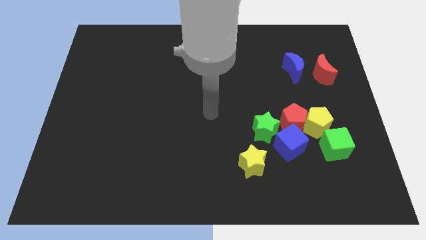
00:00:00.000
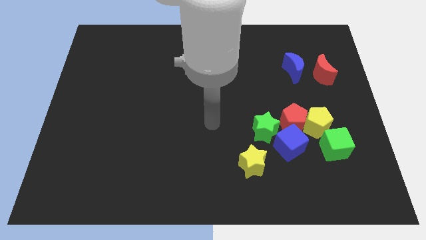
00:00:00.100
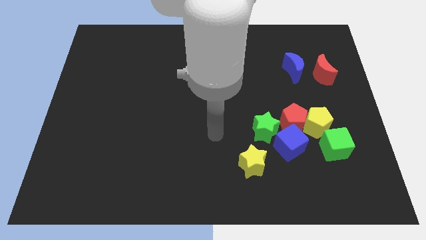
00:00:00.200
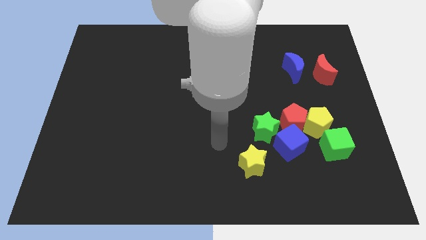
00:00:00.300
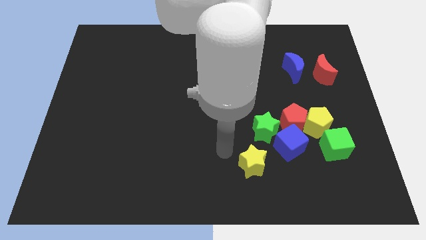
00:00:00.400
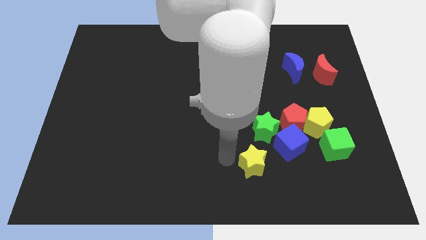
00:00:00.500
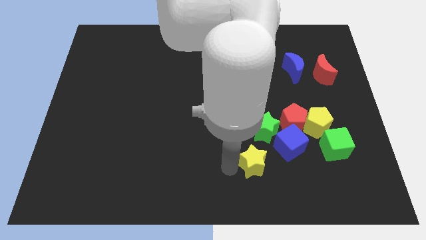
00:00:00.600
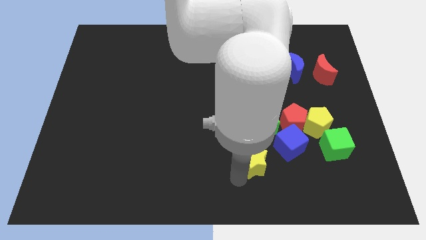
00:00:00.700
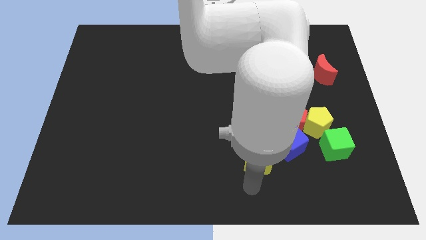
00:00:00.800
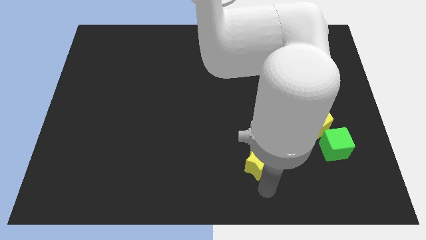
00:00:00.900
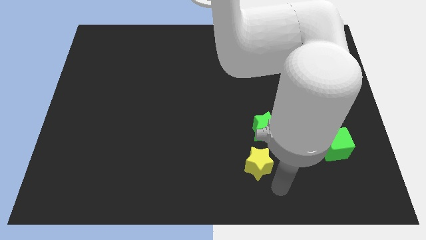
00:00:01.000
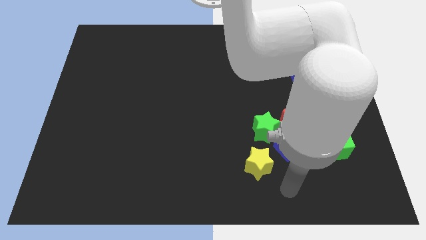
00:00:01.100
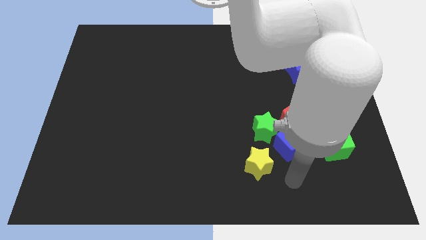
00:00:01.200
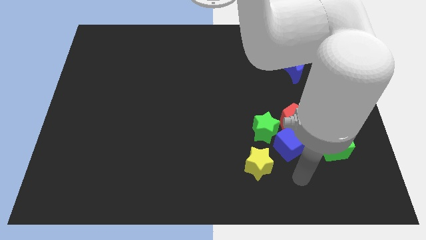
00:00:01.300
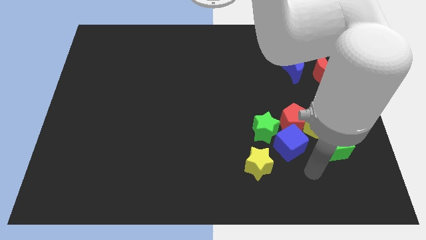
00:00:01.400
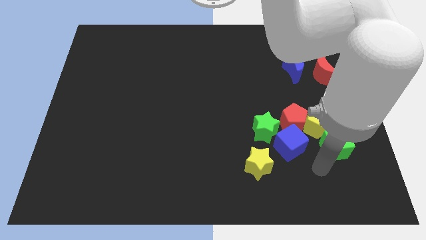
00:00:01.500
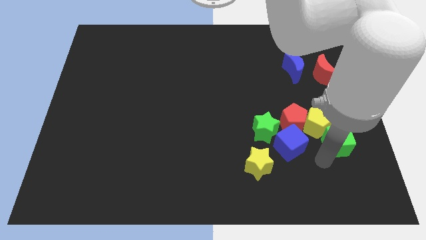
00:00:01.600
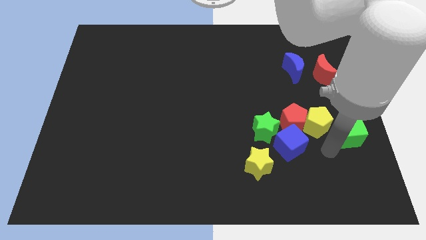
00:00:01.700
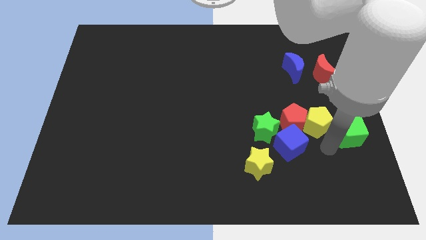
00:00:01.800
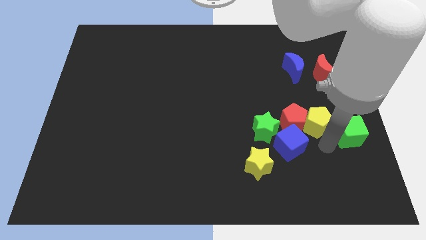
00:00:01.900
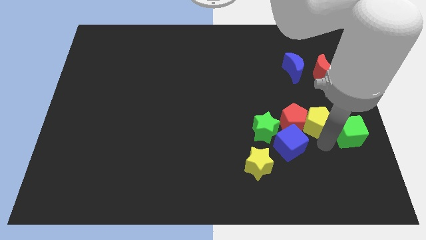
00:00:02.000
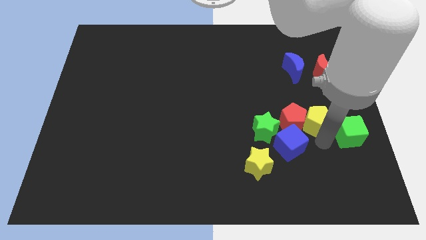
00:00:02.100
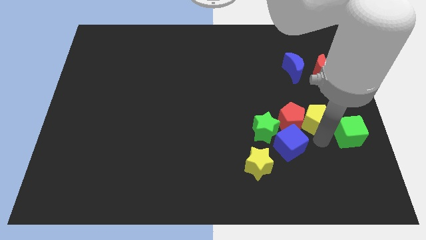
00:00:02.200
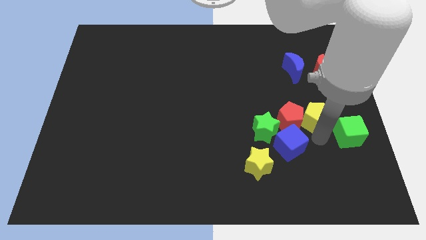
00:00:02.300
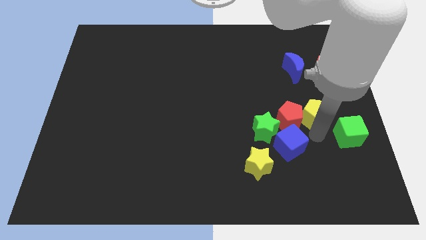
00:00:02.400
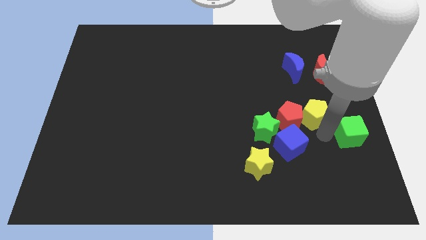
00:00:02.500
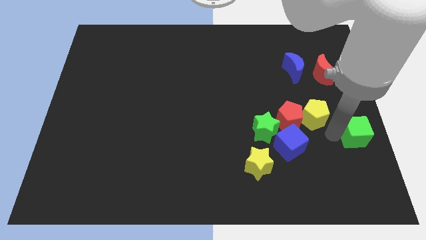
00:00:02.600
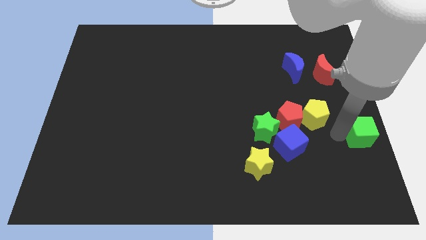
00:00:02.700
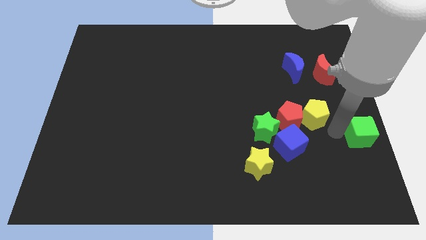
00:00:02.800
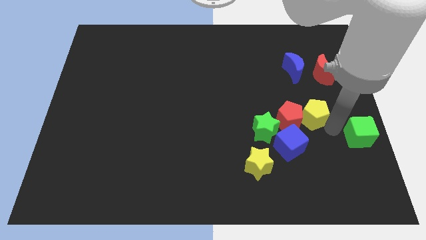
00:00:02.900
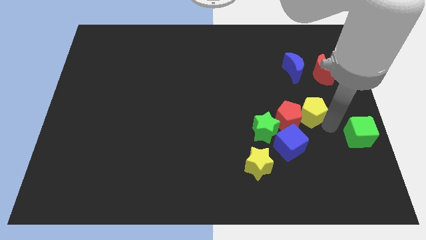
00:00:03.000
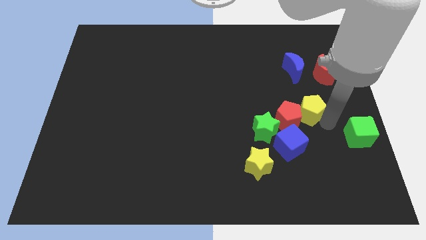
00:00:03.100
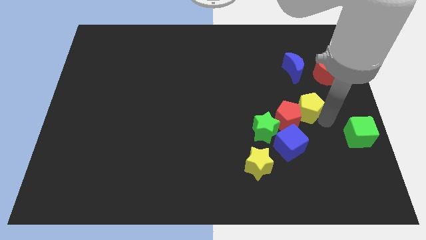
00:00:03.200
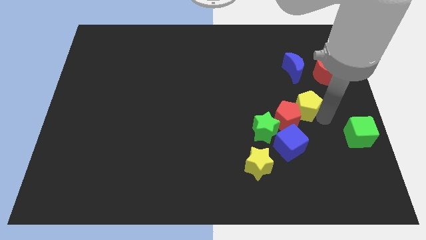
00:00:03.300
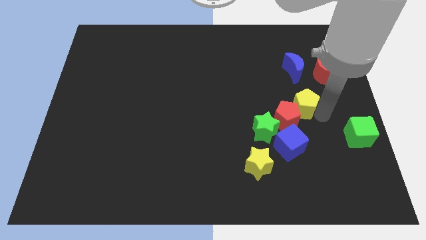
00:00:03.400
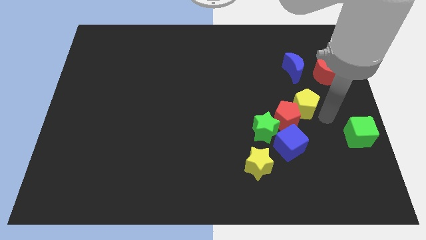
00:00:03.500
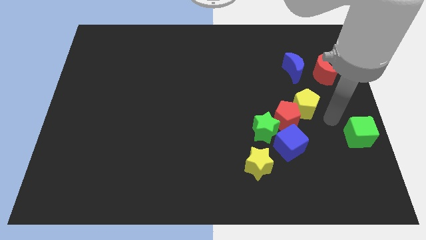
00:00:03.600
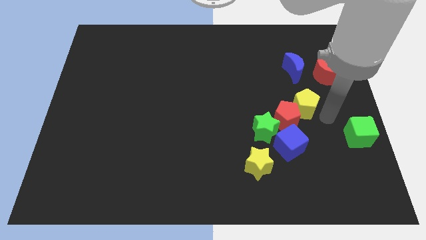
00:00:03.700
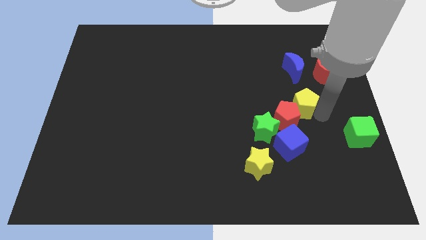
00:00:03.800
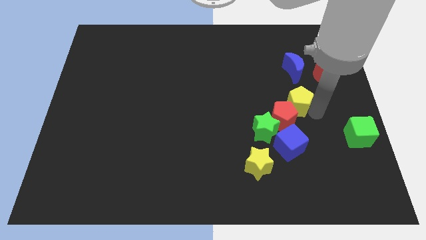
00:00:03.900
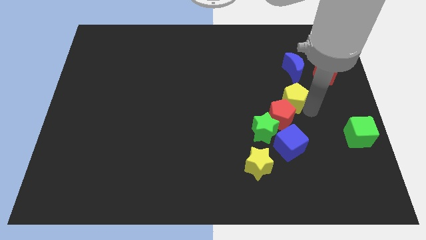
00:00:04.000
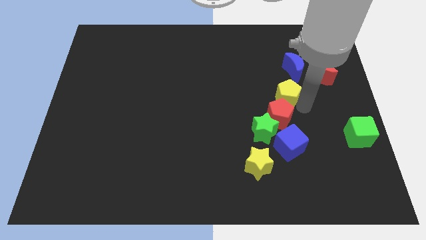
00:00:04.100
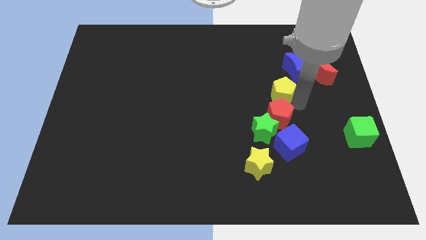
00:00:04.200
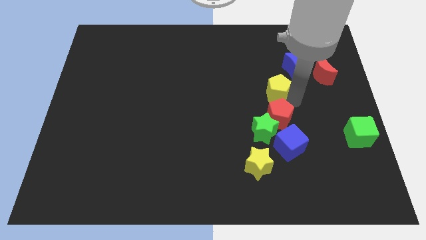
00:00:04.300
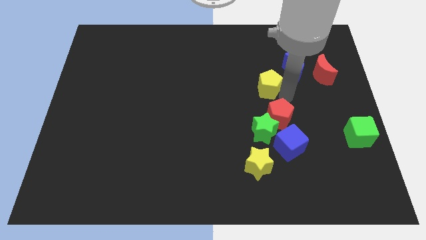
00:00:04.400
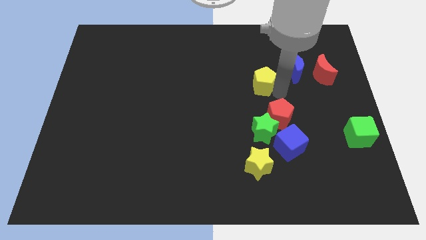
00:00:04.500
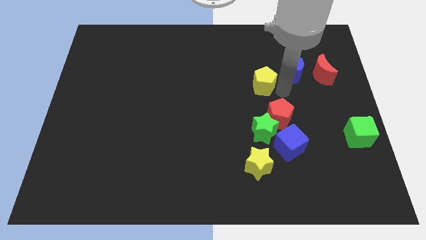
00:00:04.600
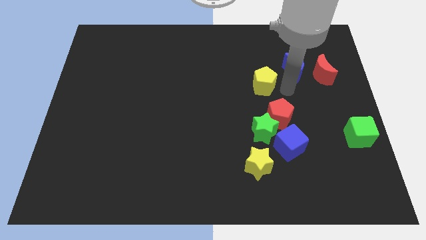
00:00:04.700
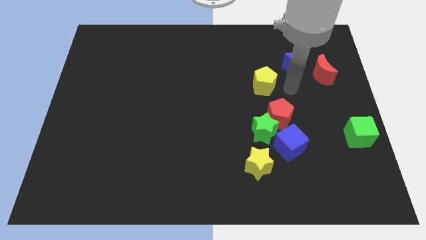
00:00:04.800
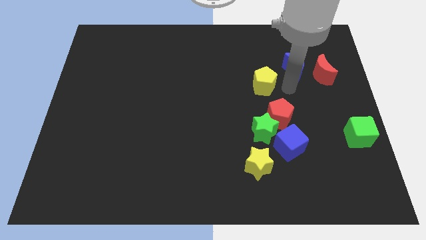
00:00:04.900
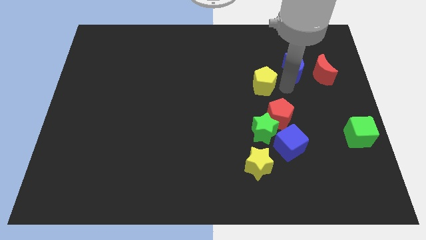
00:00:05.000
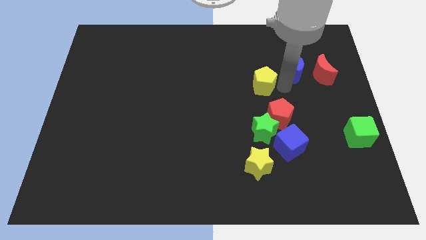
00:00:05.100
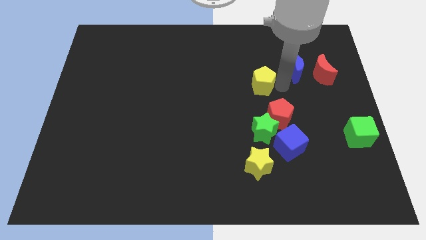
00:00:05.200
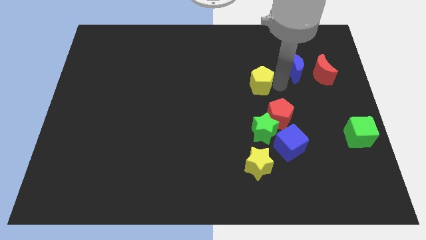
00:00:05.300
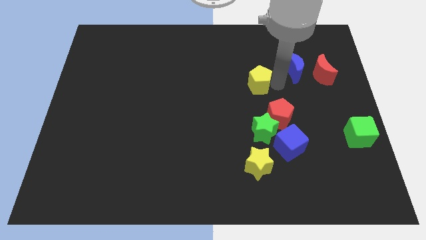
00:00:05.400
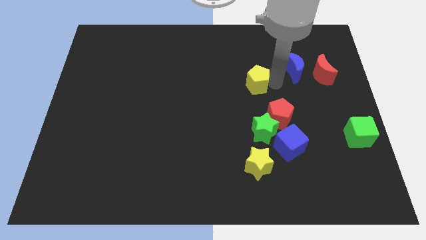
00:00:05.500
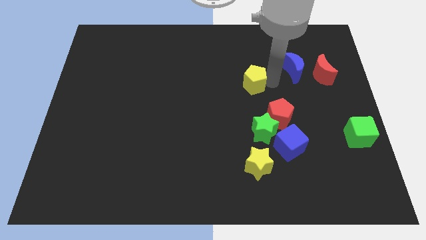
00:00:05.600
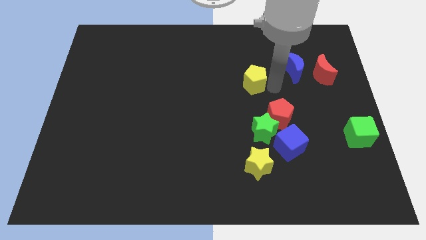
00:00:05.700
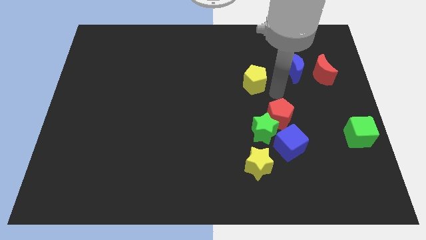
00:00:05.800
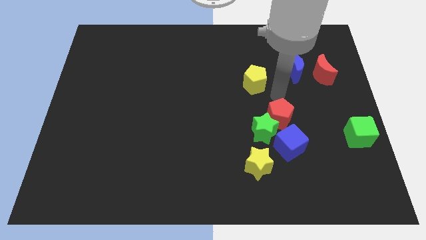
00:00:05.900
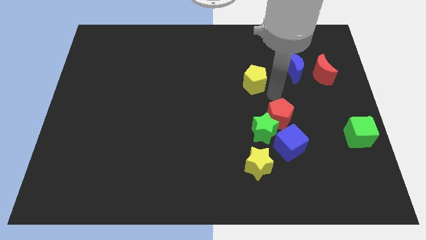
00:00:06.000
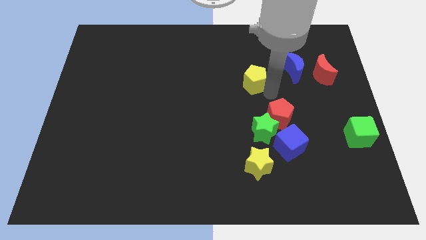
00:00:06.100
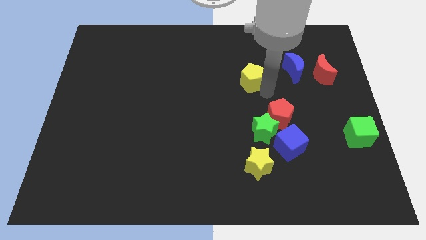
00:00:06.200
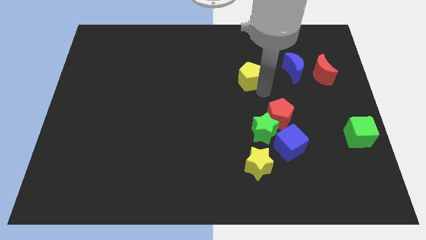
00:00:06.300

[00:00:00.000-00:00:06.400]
push the yellow pentagon upwards and to the left diagonally

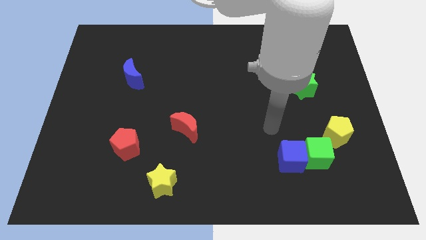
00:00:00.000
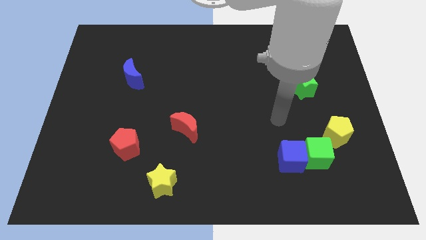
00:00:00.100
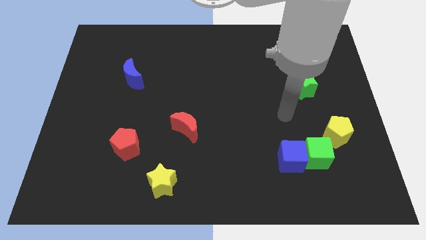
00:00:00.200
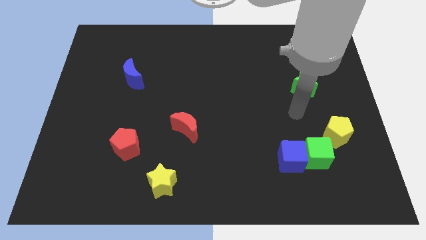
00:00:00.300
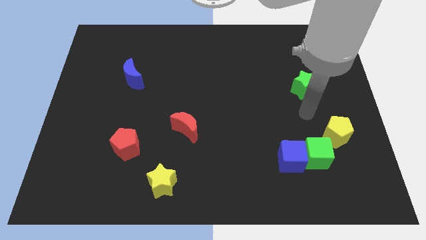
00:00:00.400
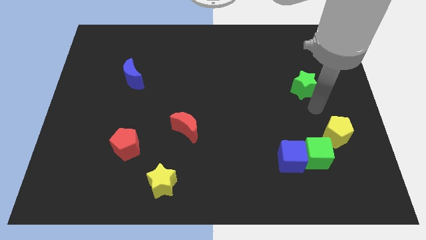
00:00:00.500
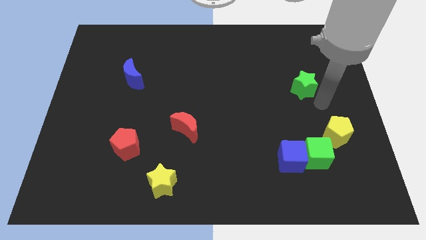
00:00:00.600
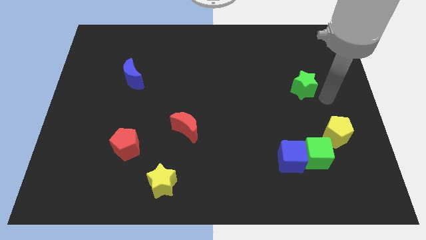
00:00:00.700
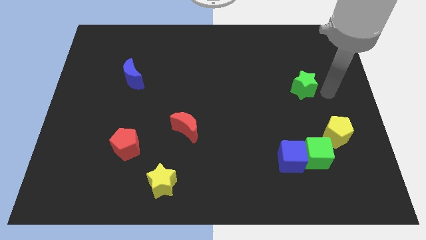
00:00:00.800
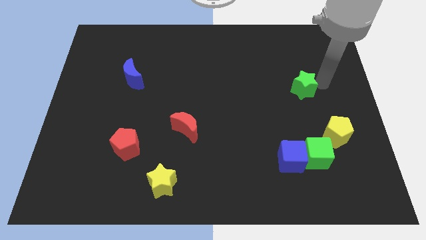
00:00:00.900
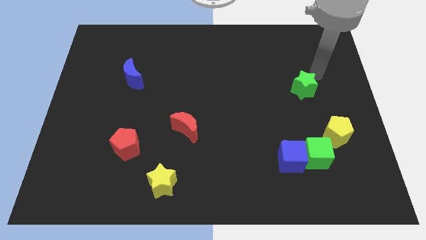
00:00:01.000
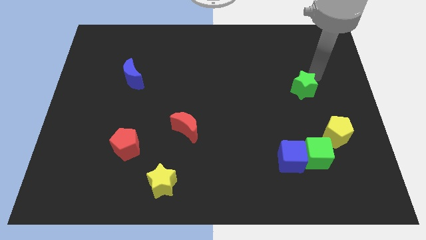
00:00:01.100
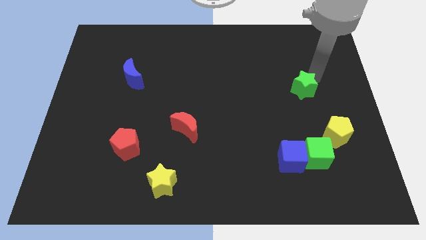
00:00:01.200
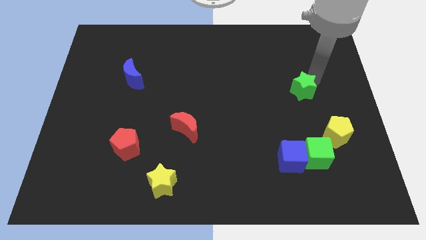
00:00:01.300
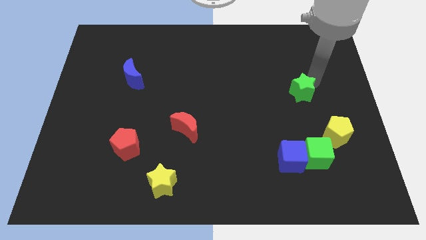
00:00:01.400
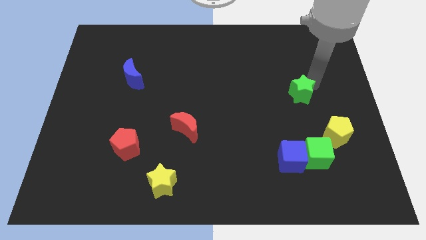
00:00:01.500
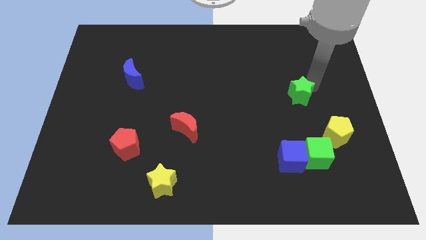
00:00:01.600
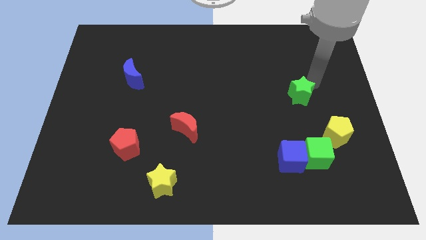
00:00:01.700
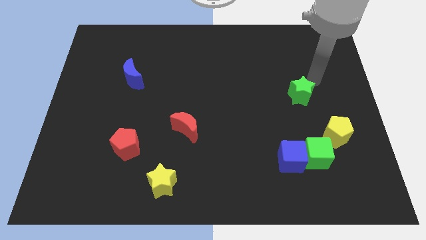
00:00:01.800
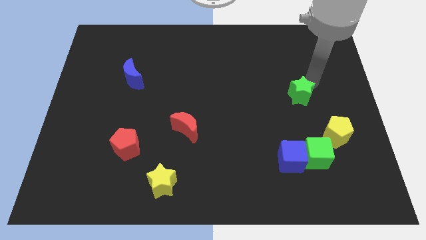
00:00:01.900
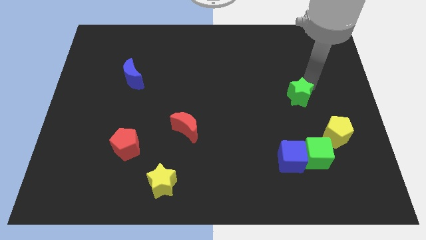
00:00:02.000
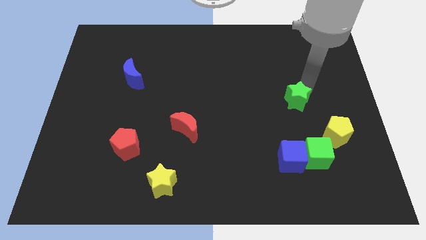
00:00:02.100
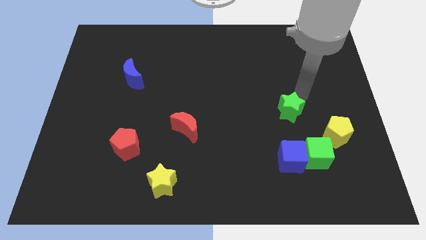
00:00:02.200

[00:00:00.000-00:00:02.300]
push the green star down and then to the left somewhat
